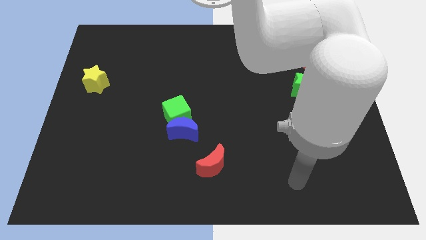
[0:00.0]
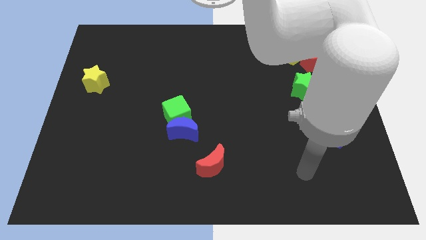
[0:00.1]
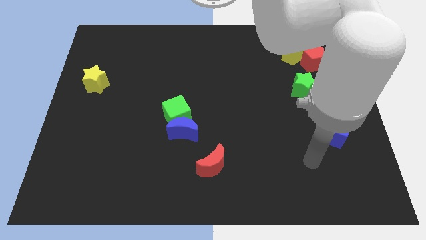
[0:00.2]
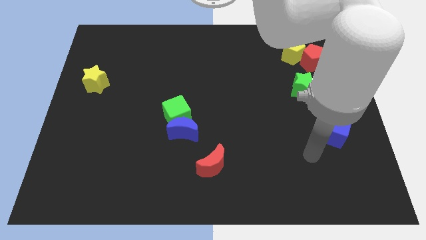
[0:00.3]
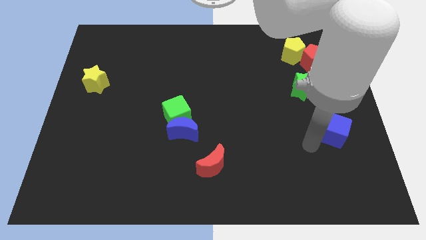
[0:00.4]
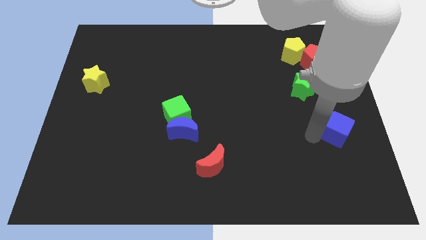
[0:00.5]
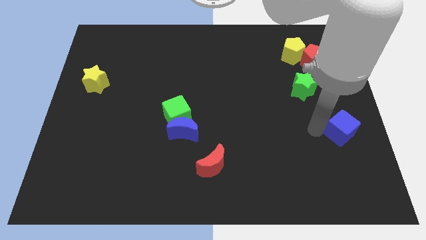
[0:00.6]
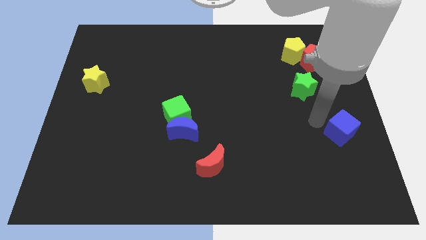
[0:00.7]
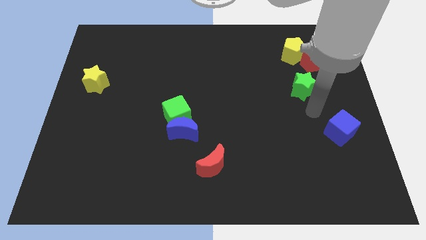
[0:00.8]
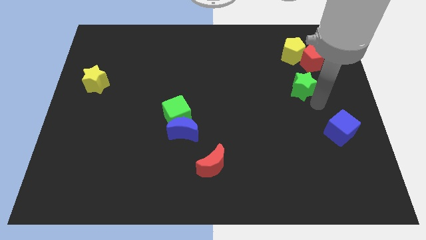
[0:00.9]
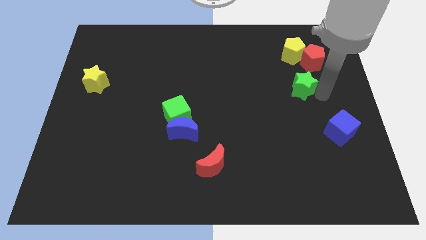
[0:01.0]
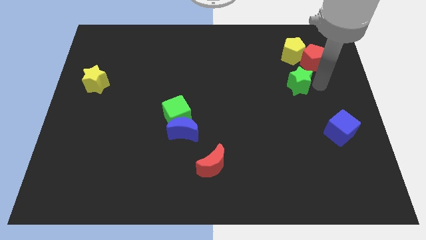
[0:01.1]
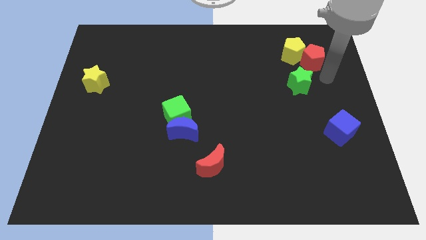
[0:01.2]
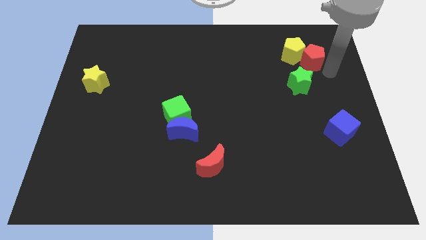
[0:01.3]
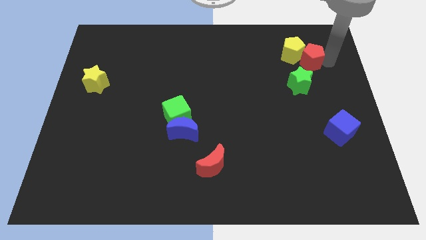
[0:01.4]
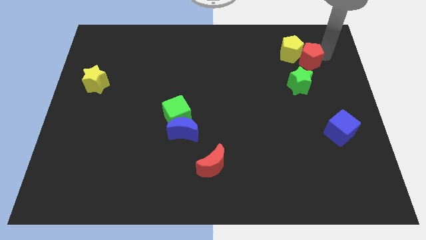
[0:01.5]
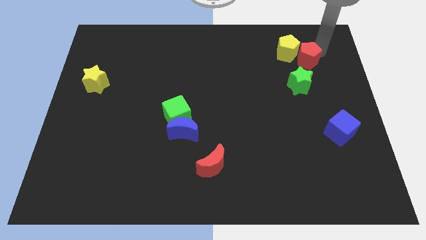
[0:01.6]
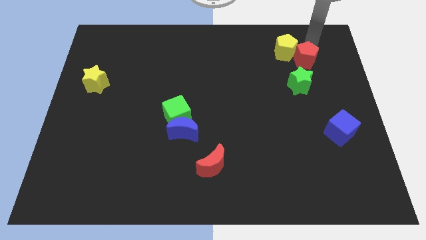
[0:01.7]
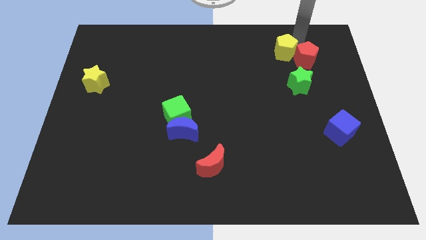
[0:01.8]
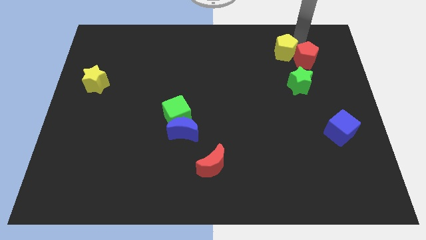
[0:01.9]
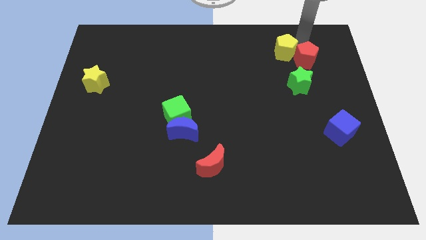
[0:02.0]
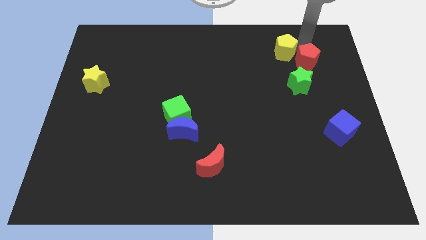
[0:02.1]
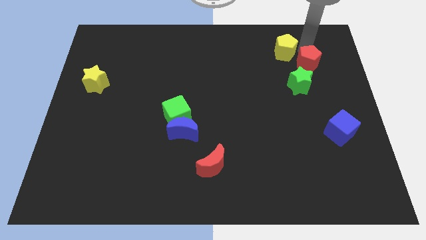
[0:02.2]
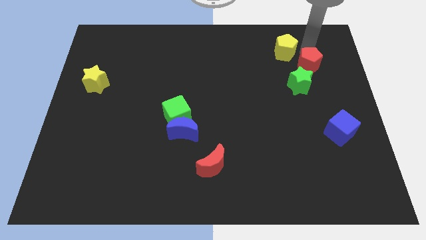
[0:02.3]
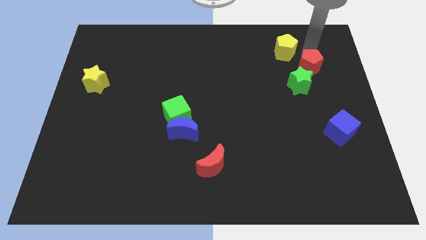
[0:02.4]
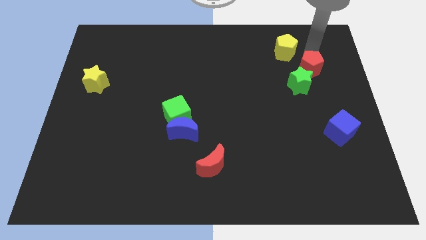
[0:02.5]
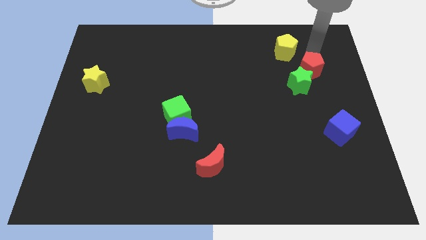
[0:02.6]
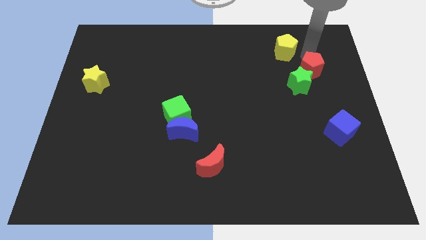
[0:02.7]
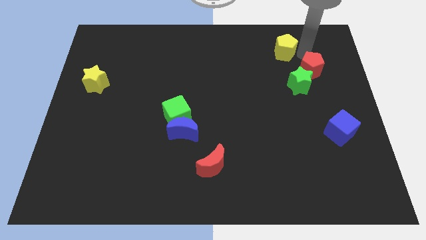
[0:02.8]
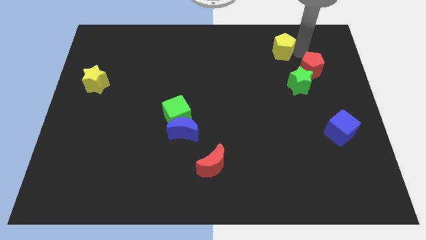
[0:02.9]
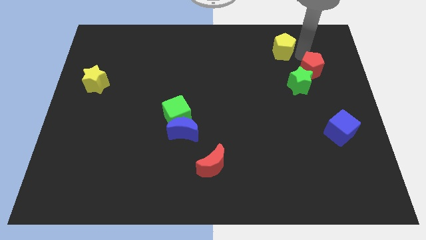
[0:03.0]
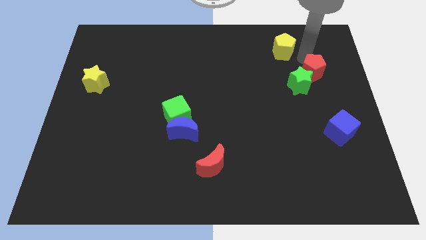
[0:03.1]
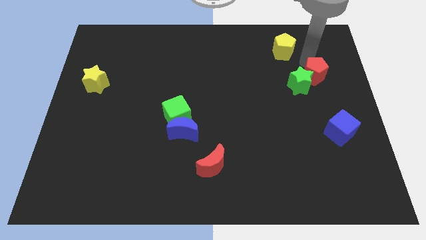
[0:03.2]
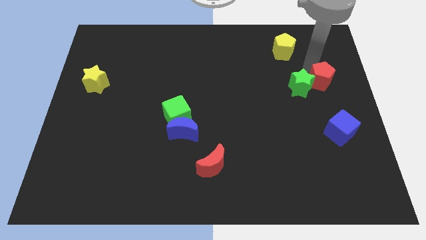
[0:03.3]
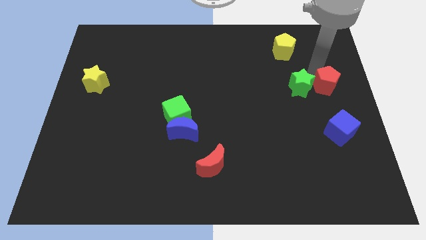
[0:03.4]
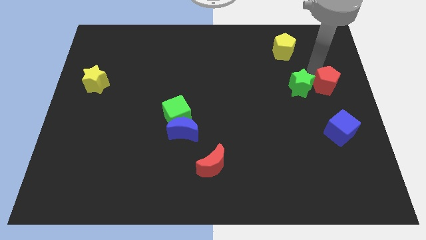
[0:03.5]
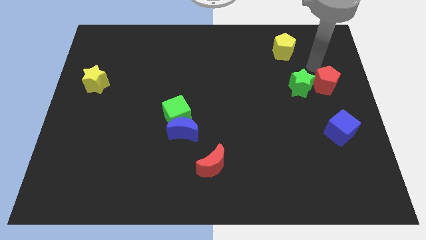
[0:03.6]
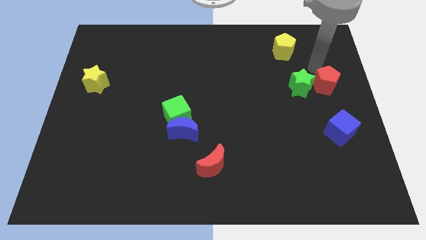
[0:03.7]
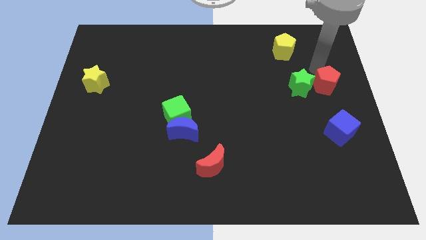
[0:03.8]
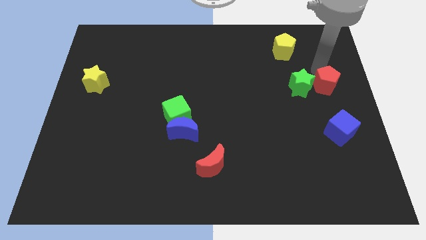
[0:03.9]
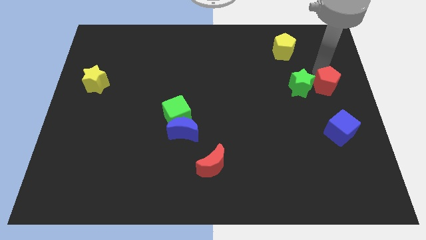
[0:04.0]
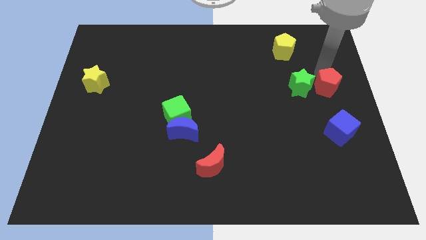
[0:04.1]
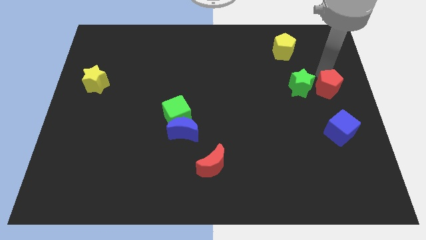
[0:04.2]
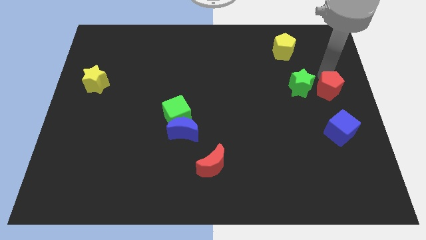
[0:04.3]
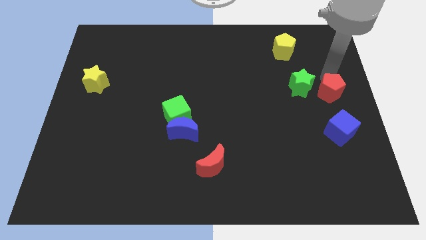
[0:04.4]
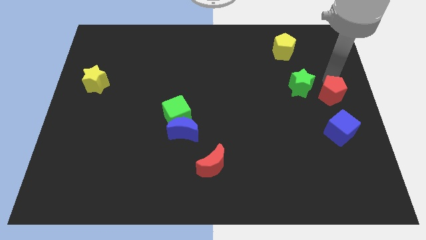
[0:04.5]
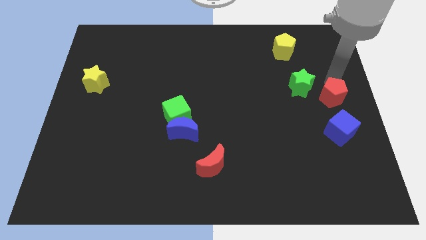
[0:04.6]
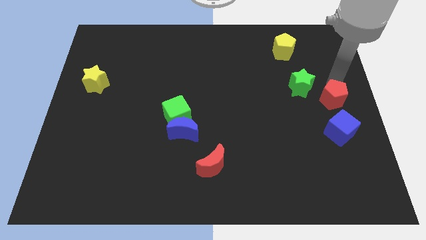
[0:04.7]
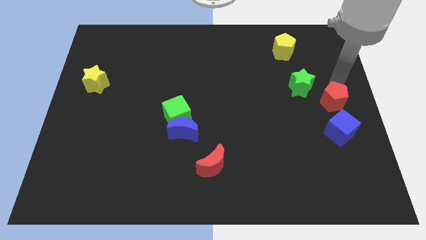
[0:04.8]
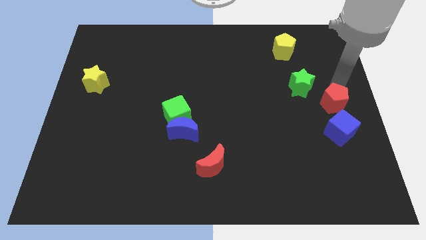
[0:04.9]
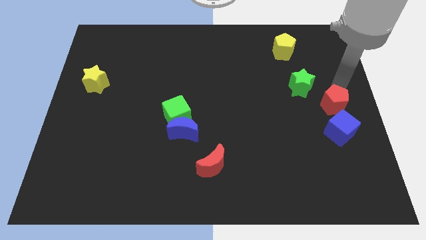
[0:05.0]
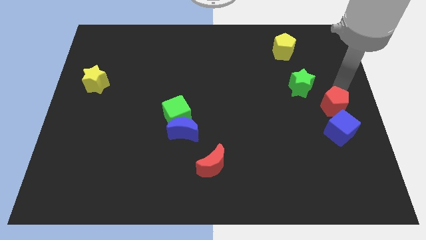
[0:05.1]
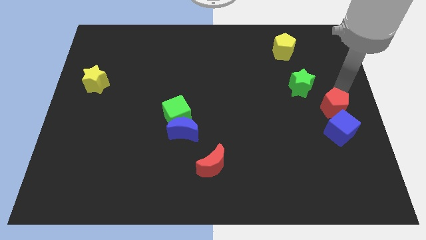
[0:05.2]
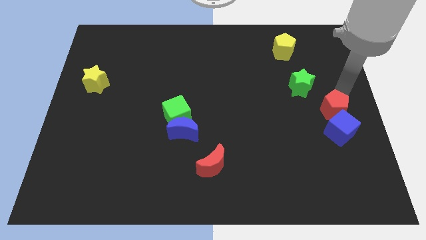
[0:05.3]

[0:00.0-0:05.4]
move the red pentagon next to the blue cube

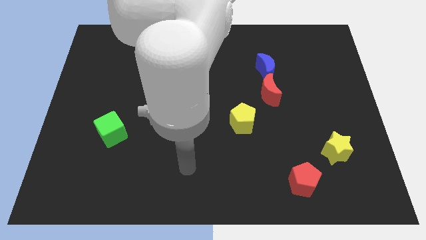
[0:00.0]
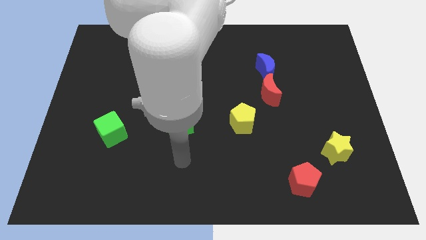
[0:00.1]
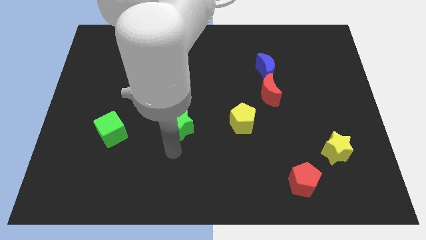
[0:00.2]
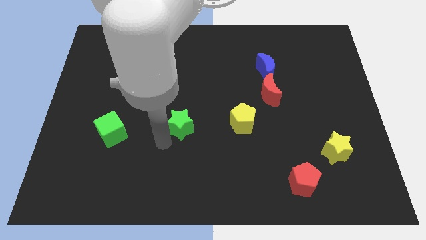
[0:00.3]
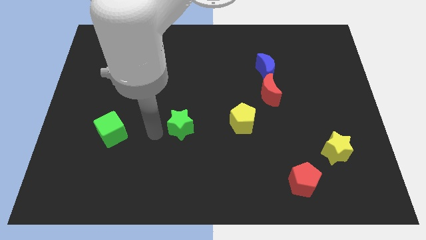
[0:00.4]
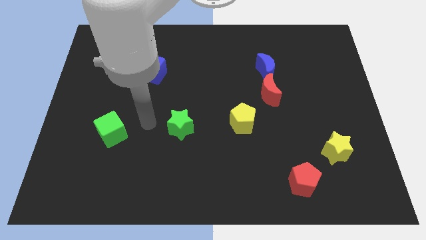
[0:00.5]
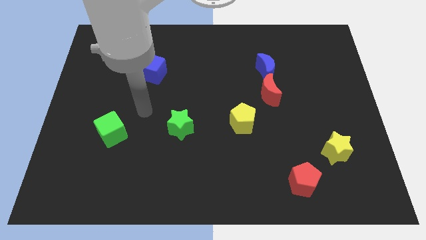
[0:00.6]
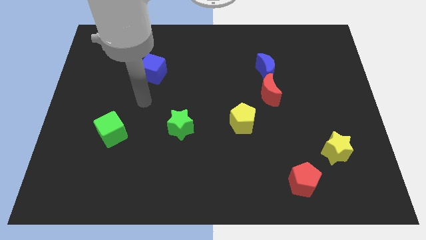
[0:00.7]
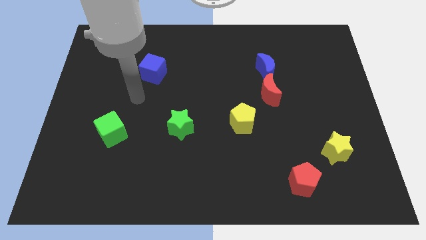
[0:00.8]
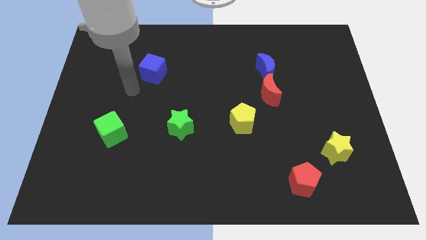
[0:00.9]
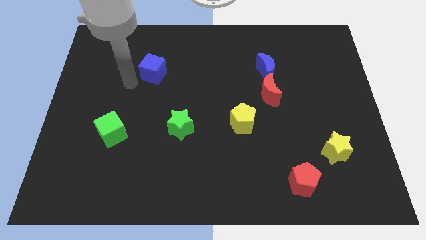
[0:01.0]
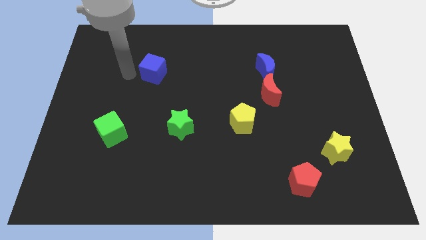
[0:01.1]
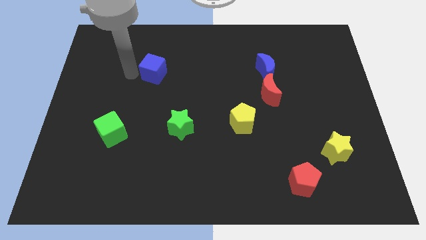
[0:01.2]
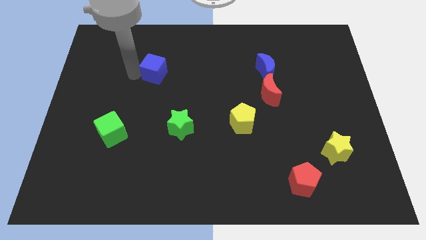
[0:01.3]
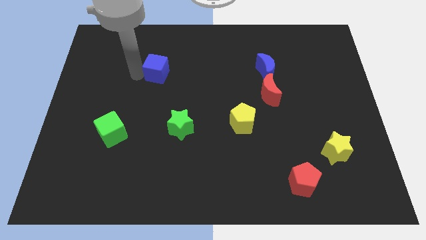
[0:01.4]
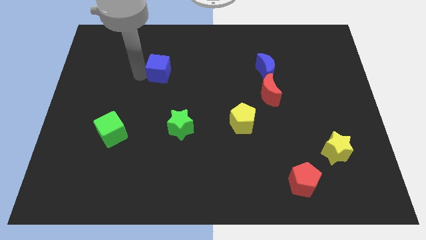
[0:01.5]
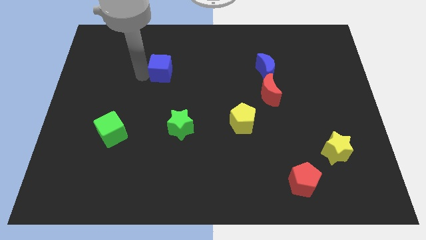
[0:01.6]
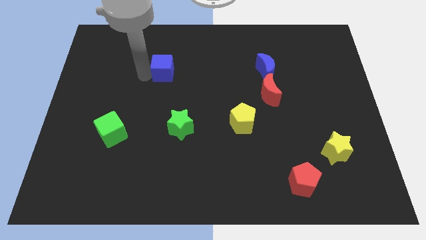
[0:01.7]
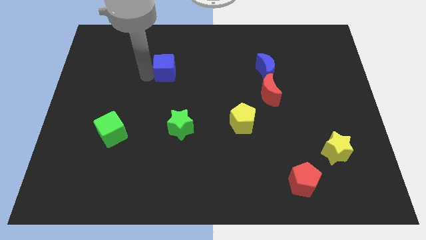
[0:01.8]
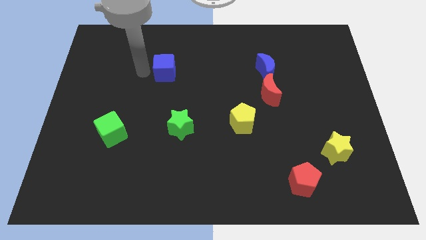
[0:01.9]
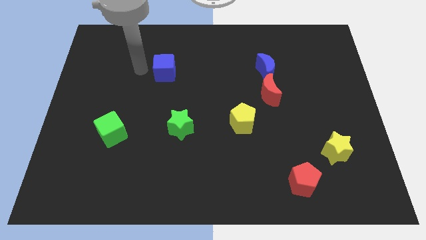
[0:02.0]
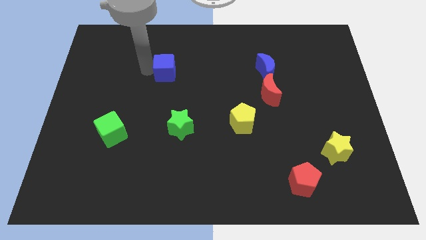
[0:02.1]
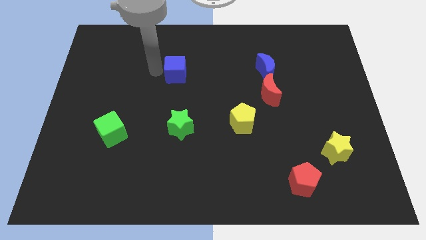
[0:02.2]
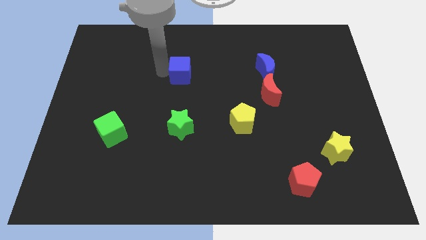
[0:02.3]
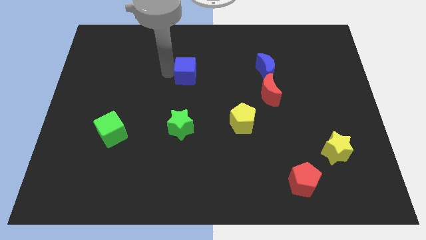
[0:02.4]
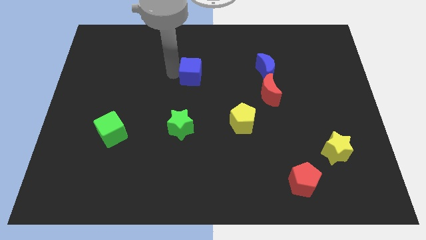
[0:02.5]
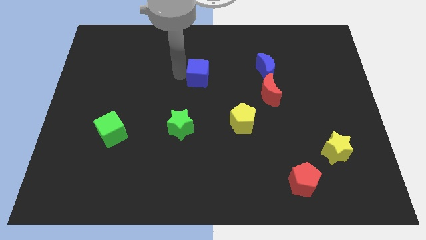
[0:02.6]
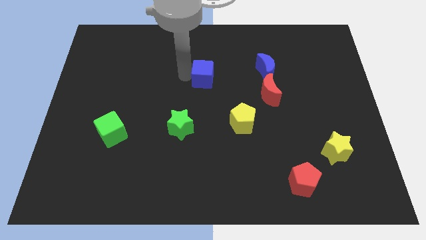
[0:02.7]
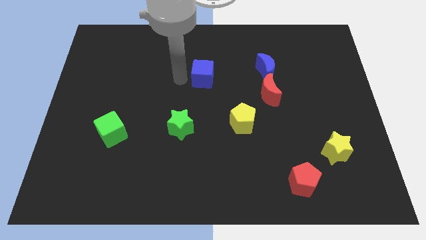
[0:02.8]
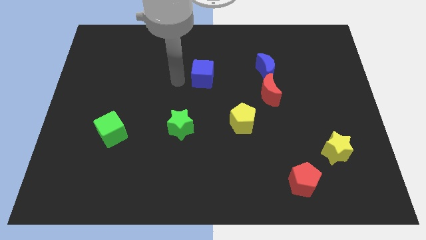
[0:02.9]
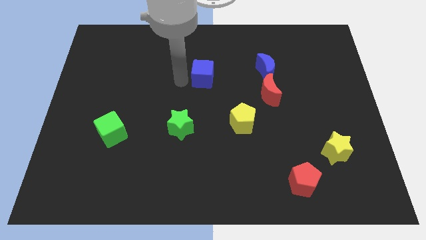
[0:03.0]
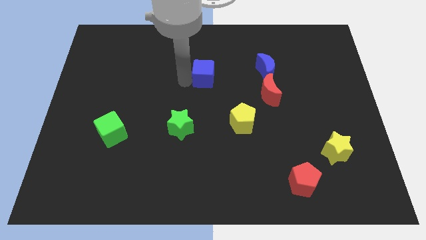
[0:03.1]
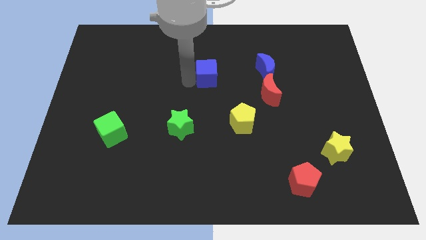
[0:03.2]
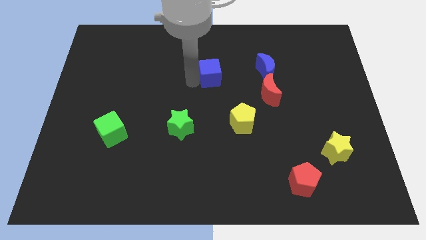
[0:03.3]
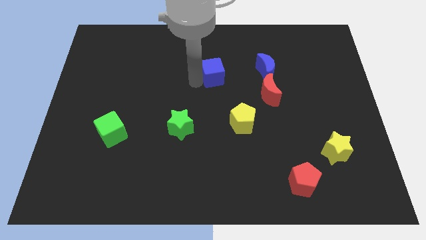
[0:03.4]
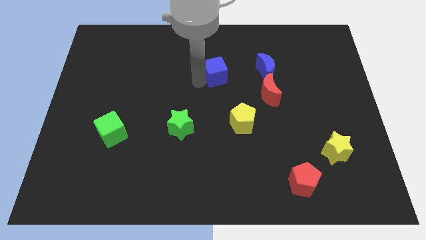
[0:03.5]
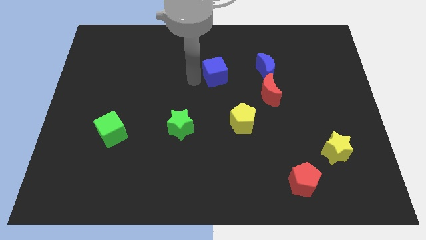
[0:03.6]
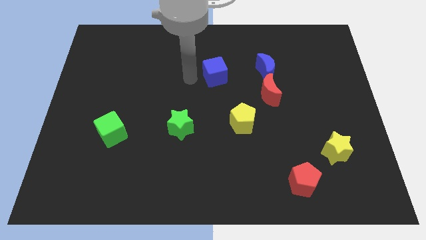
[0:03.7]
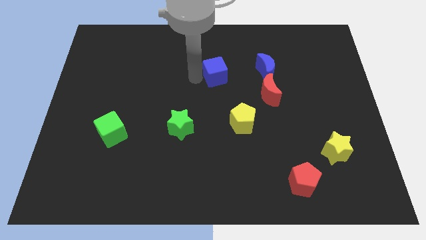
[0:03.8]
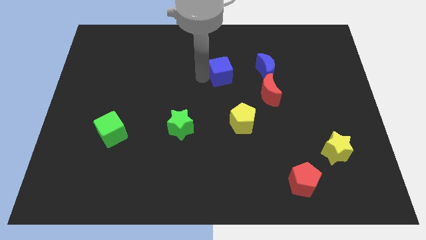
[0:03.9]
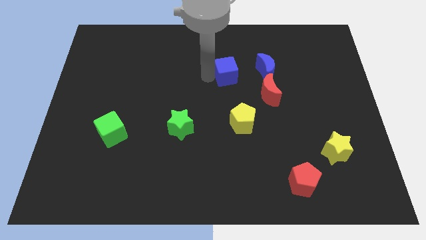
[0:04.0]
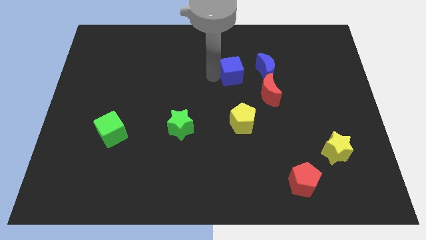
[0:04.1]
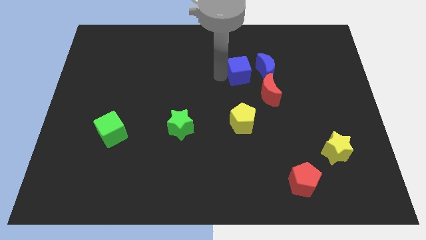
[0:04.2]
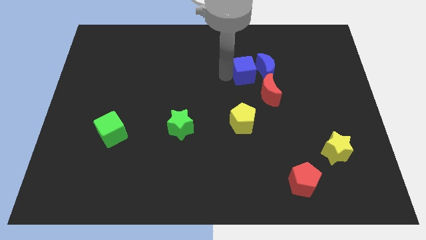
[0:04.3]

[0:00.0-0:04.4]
push the blue cube next to the blue moon
